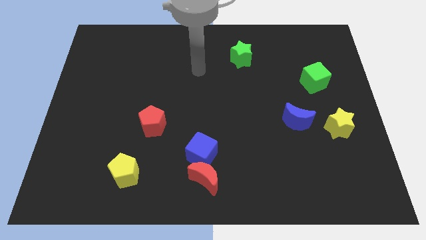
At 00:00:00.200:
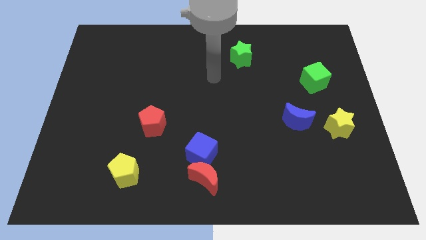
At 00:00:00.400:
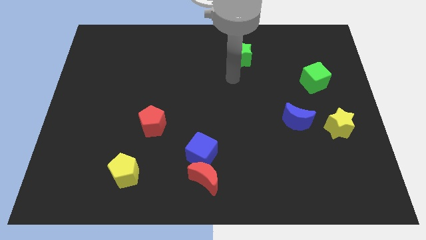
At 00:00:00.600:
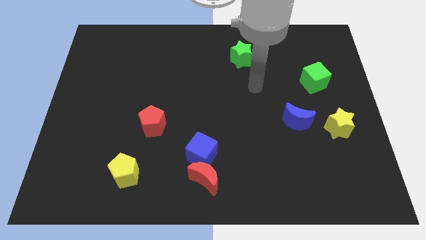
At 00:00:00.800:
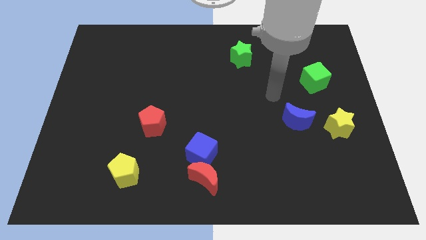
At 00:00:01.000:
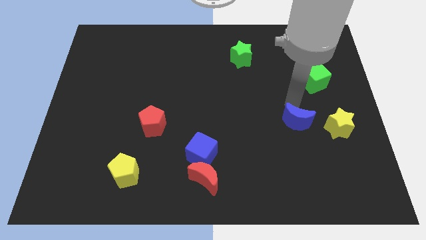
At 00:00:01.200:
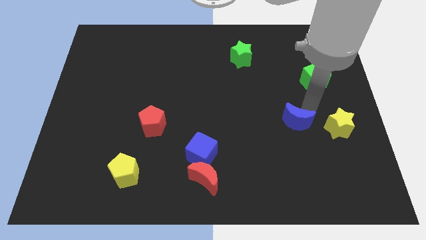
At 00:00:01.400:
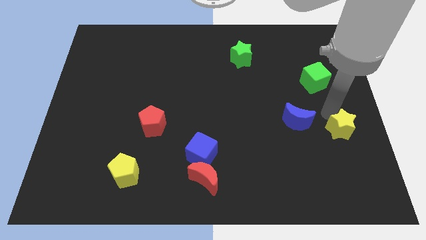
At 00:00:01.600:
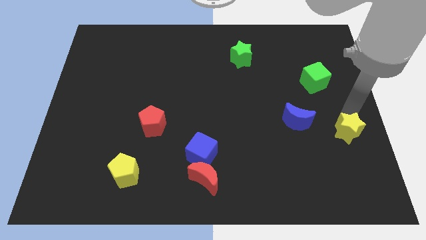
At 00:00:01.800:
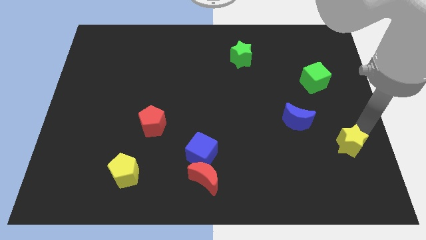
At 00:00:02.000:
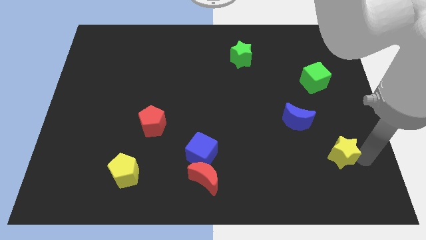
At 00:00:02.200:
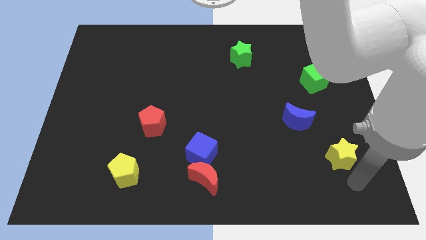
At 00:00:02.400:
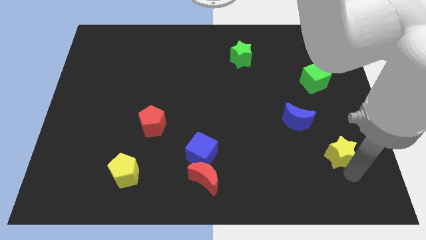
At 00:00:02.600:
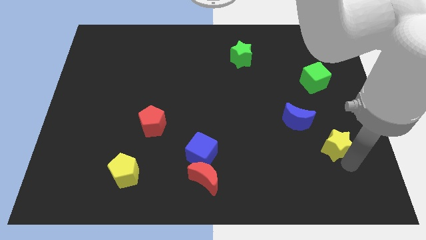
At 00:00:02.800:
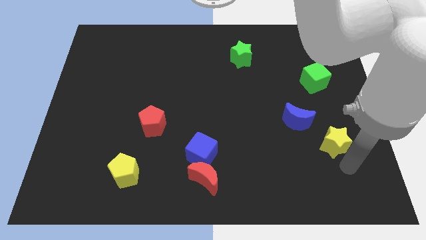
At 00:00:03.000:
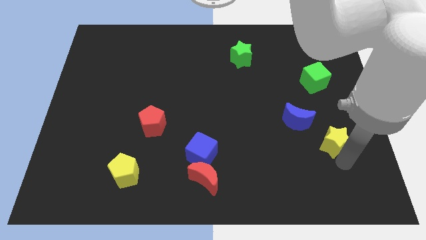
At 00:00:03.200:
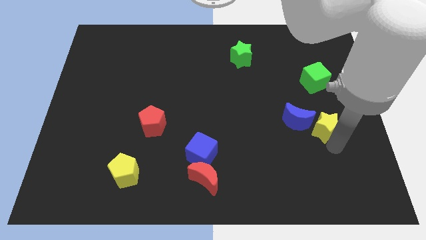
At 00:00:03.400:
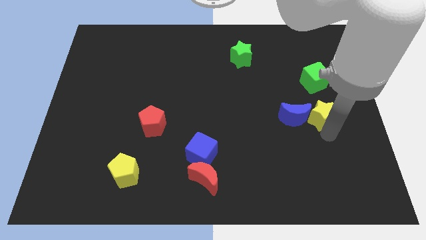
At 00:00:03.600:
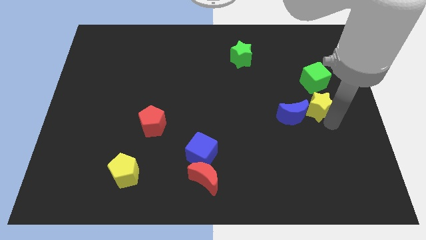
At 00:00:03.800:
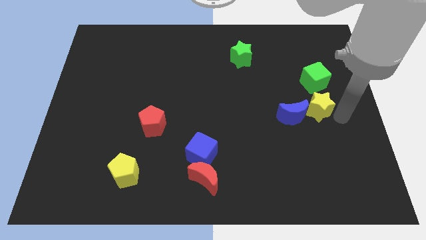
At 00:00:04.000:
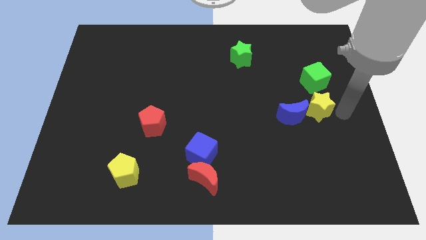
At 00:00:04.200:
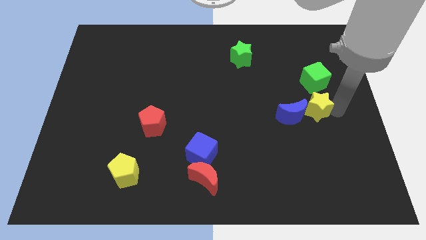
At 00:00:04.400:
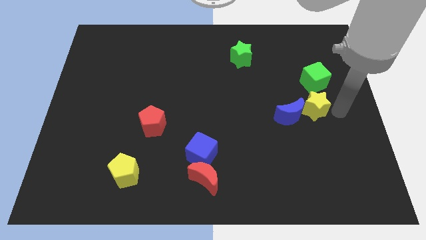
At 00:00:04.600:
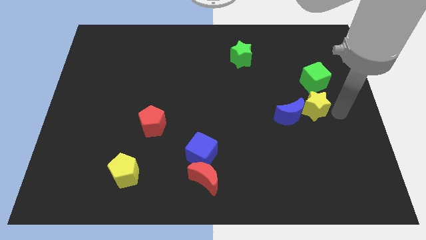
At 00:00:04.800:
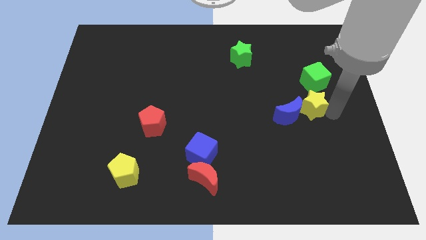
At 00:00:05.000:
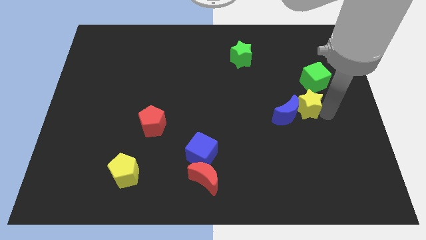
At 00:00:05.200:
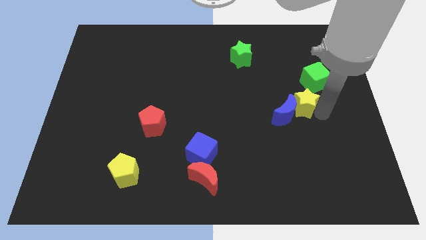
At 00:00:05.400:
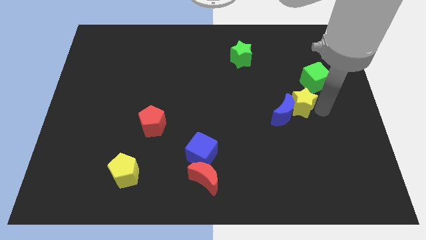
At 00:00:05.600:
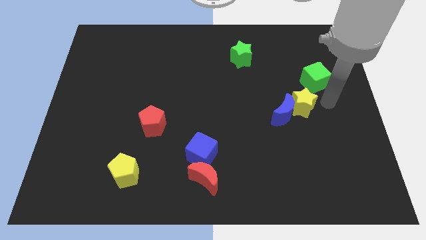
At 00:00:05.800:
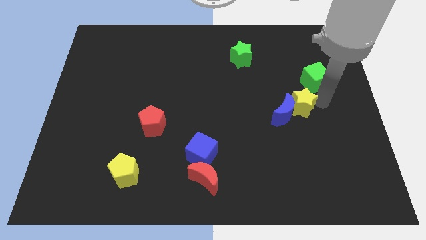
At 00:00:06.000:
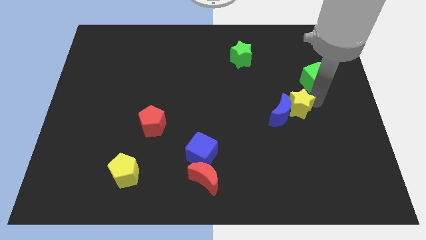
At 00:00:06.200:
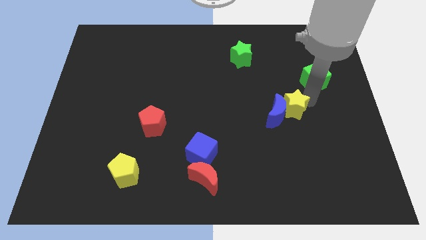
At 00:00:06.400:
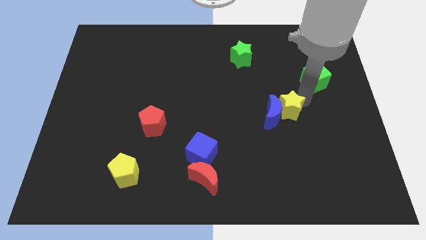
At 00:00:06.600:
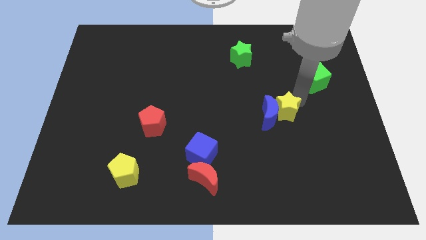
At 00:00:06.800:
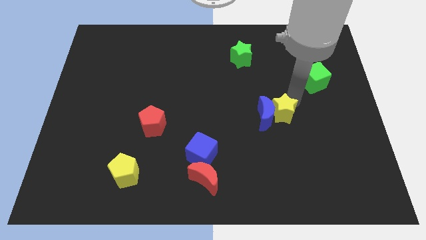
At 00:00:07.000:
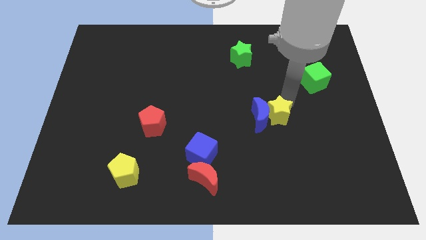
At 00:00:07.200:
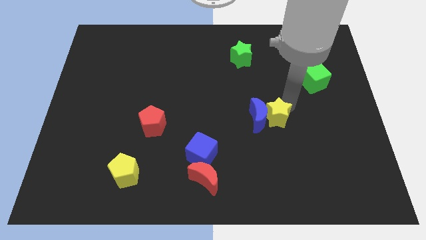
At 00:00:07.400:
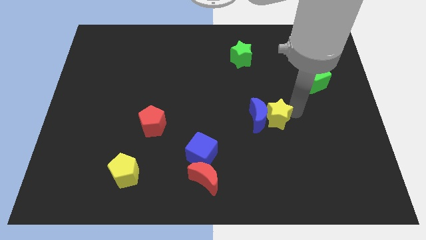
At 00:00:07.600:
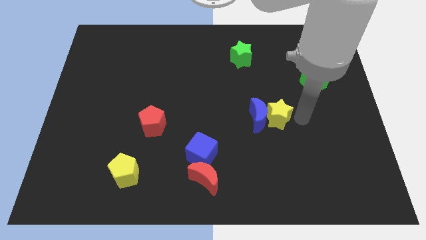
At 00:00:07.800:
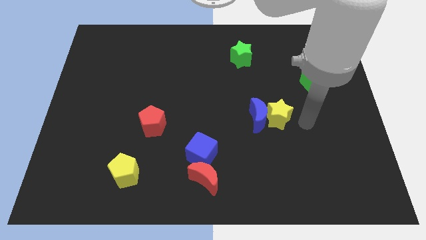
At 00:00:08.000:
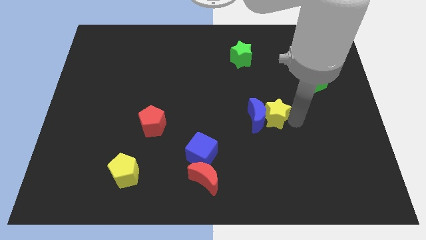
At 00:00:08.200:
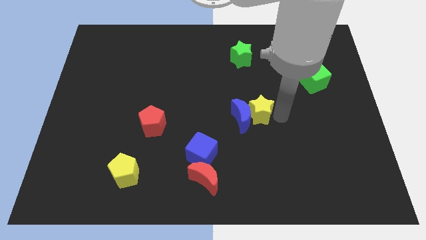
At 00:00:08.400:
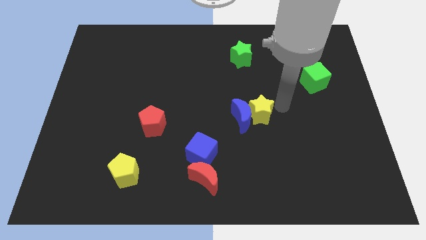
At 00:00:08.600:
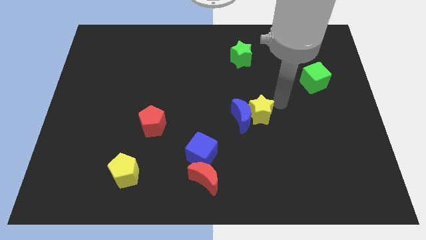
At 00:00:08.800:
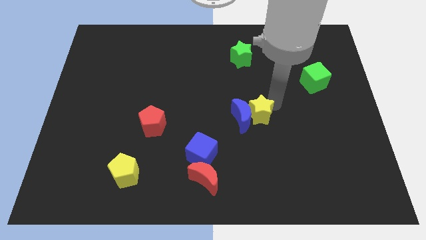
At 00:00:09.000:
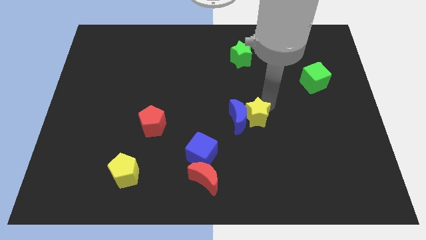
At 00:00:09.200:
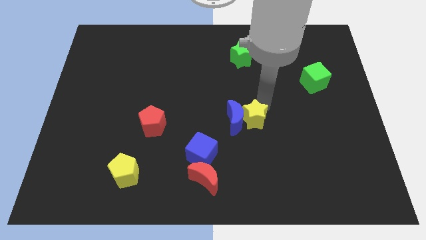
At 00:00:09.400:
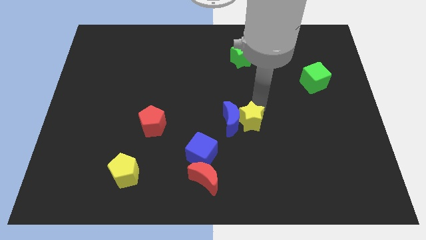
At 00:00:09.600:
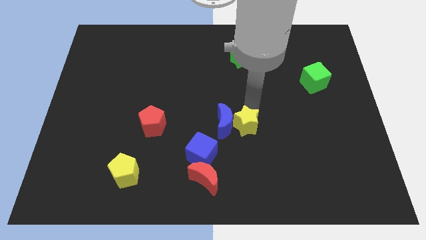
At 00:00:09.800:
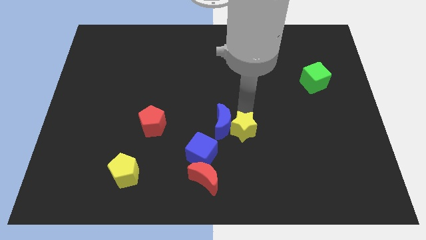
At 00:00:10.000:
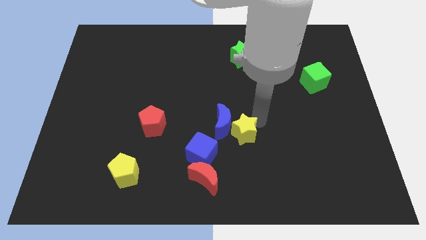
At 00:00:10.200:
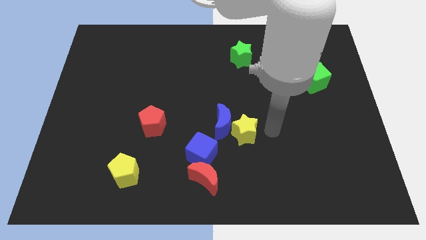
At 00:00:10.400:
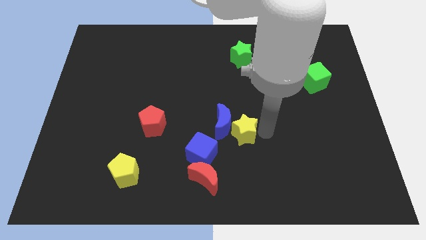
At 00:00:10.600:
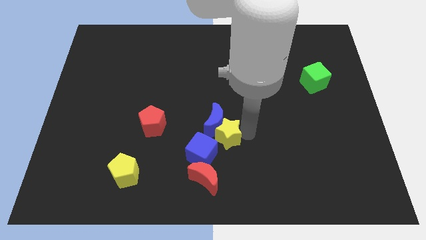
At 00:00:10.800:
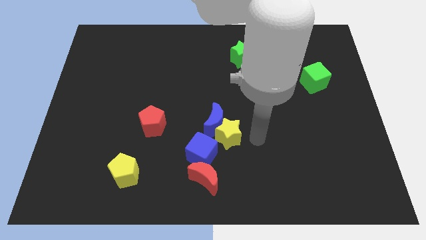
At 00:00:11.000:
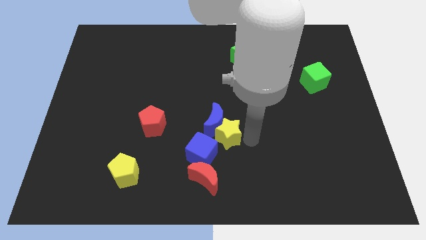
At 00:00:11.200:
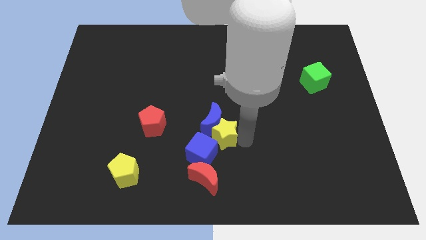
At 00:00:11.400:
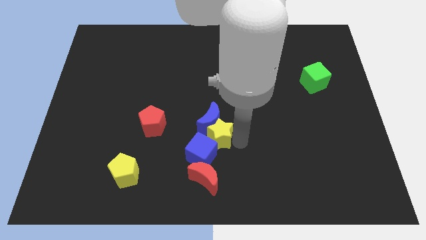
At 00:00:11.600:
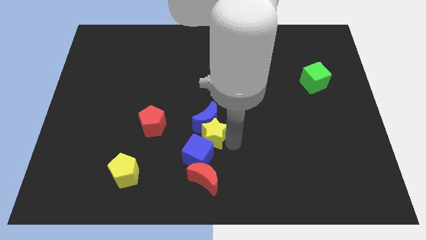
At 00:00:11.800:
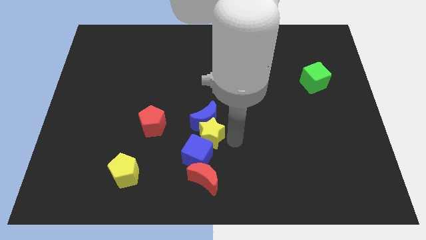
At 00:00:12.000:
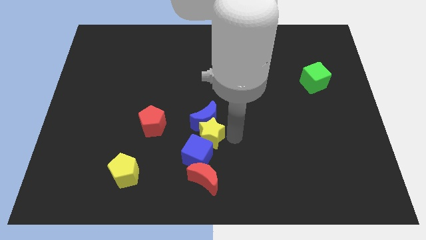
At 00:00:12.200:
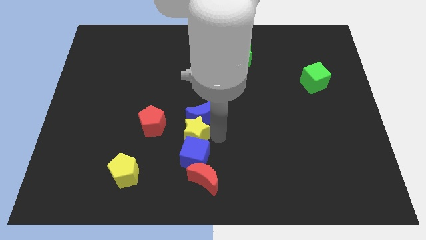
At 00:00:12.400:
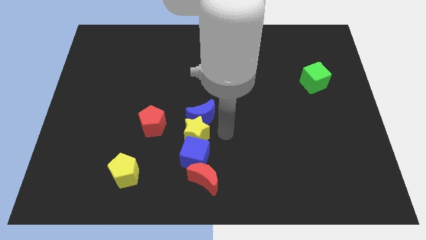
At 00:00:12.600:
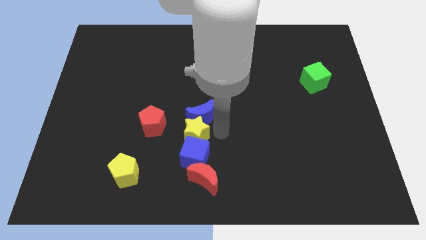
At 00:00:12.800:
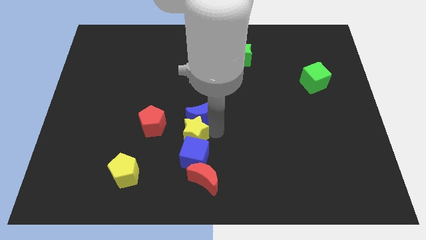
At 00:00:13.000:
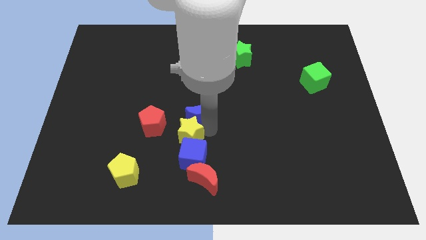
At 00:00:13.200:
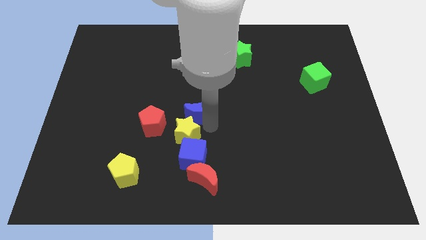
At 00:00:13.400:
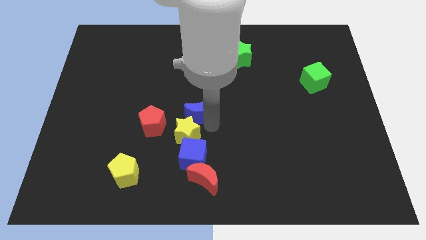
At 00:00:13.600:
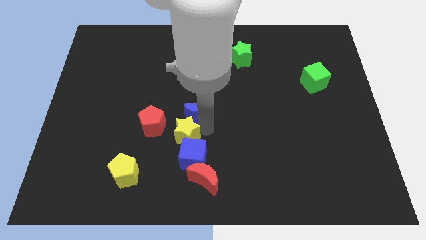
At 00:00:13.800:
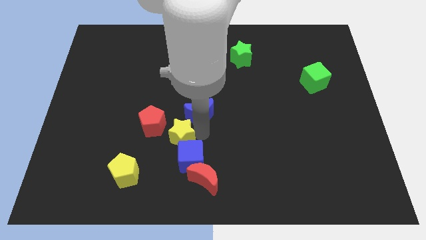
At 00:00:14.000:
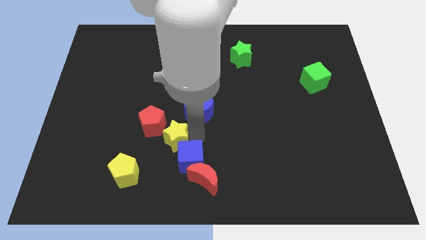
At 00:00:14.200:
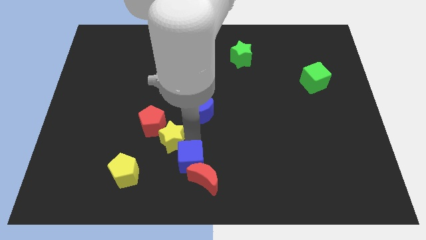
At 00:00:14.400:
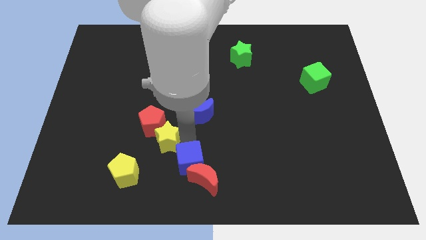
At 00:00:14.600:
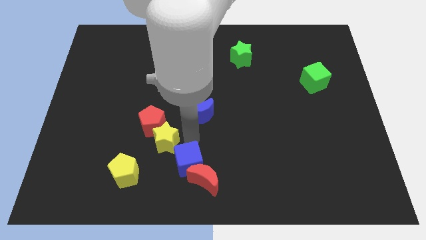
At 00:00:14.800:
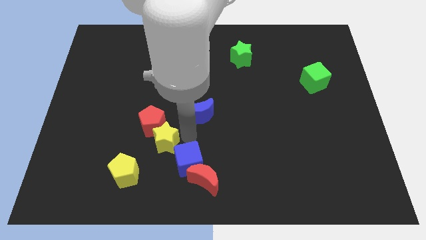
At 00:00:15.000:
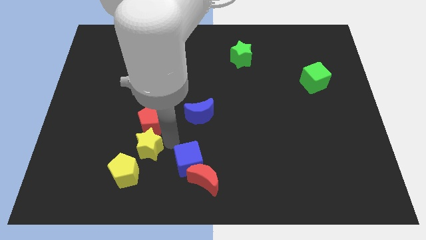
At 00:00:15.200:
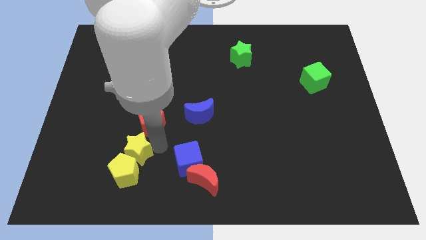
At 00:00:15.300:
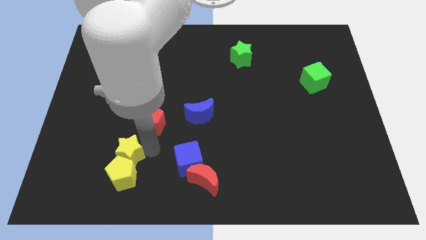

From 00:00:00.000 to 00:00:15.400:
slide the yellow star to the top left side of the yellow pentagon
